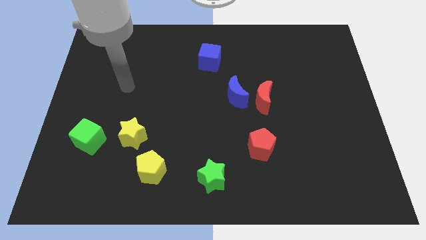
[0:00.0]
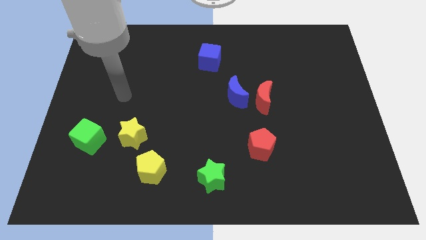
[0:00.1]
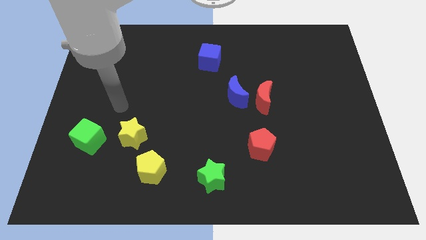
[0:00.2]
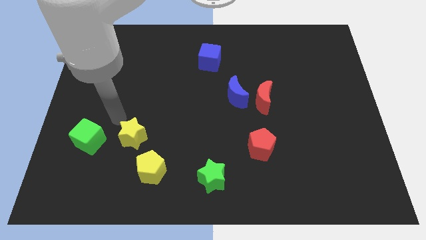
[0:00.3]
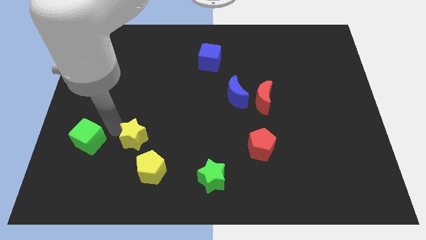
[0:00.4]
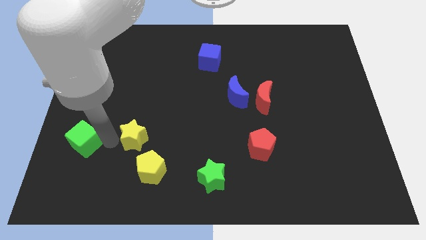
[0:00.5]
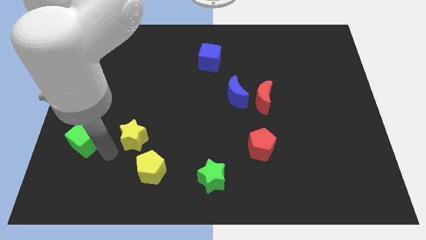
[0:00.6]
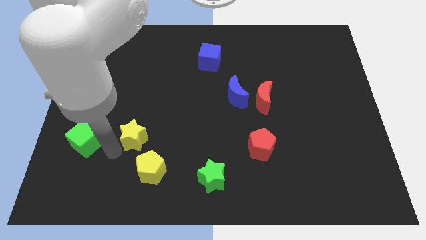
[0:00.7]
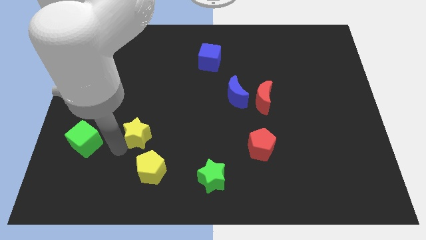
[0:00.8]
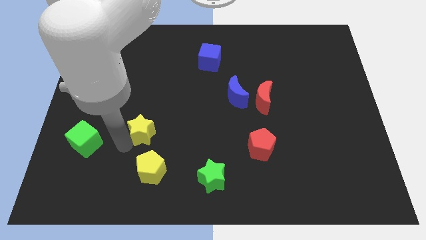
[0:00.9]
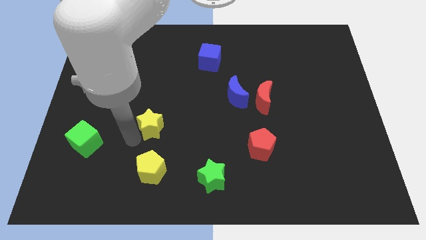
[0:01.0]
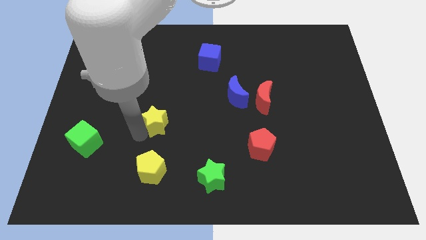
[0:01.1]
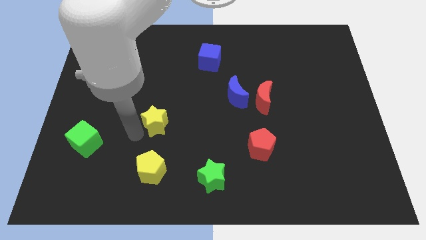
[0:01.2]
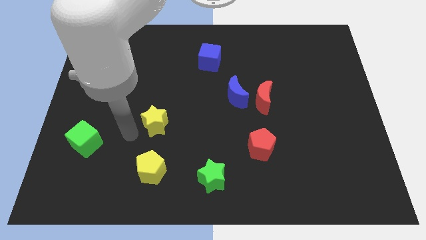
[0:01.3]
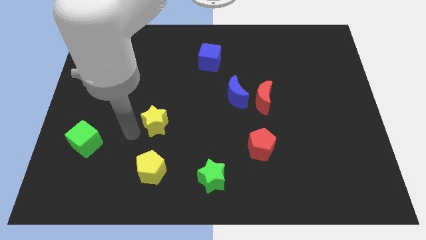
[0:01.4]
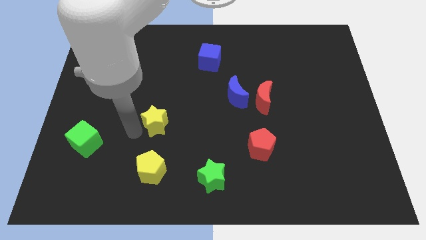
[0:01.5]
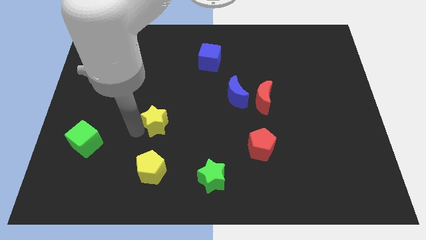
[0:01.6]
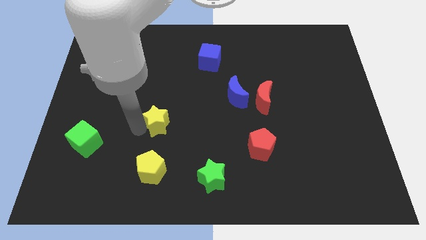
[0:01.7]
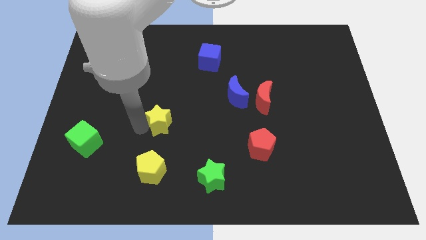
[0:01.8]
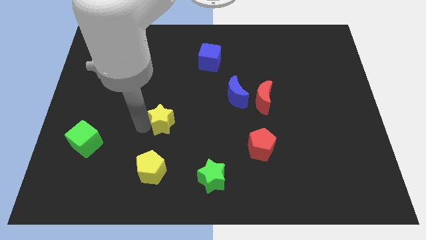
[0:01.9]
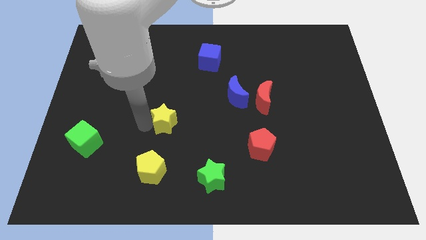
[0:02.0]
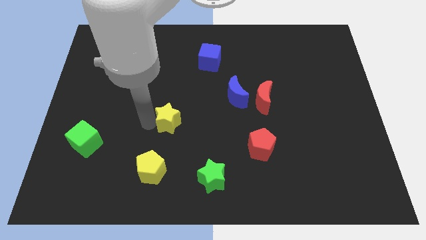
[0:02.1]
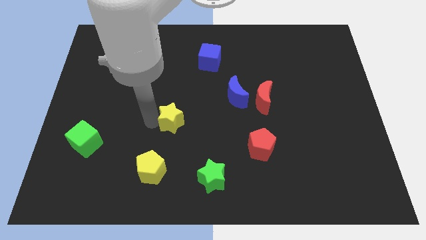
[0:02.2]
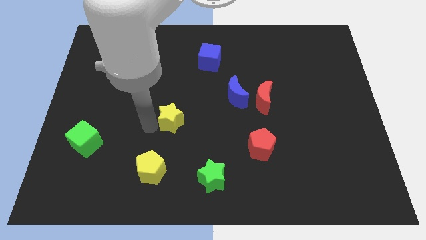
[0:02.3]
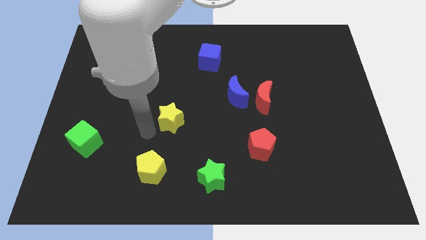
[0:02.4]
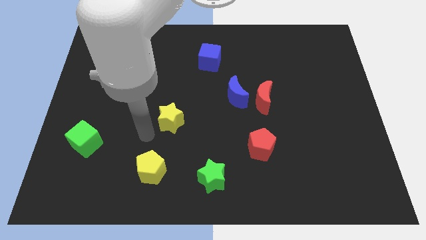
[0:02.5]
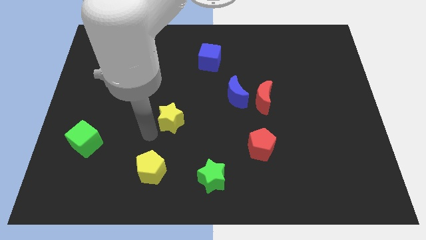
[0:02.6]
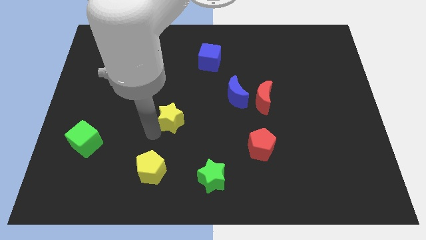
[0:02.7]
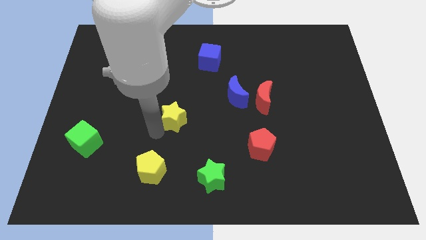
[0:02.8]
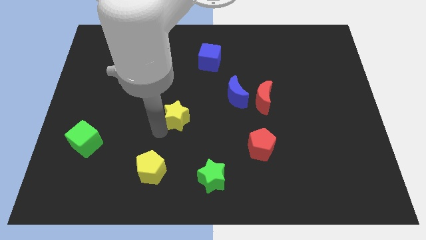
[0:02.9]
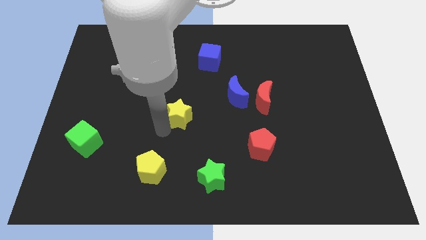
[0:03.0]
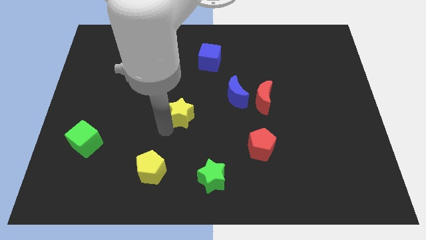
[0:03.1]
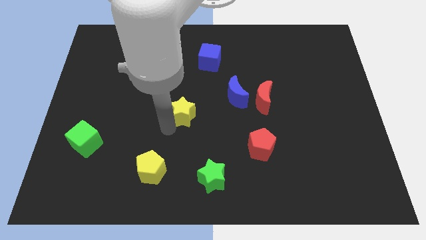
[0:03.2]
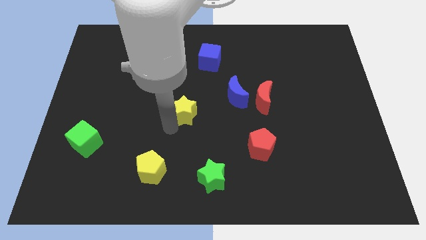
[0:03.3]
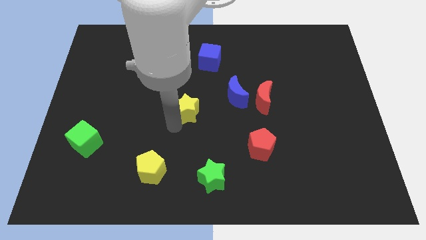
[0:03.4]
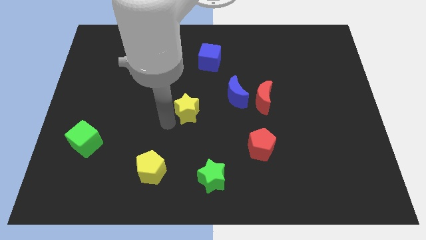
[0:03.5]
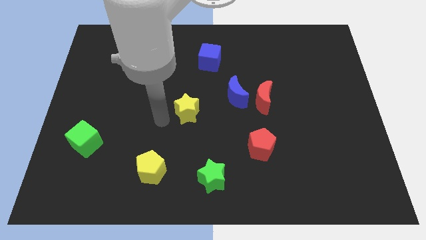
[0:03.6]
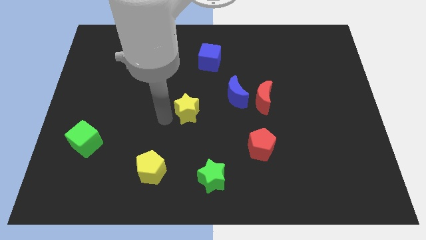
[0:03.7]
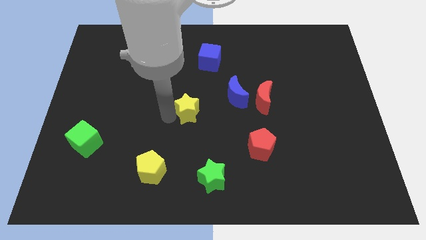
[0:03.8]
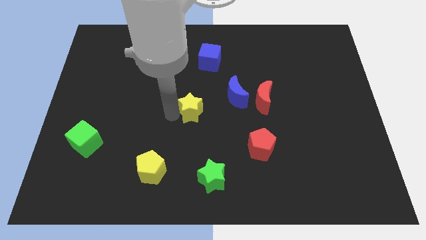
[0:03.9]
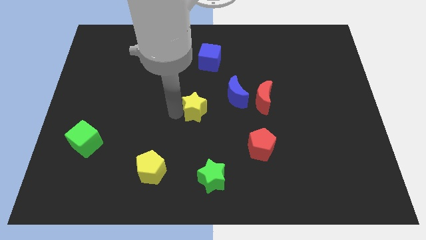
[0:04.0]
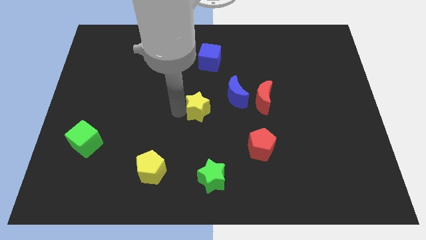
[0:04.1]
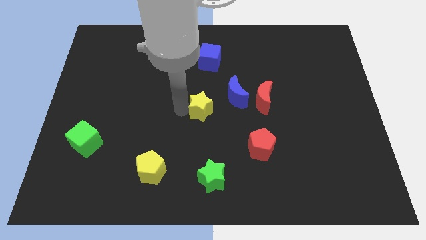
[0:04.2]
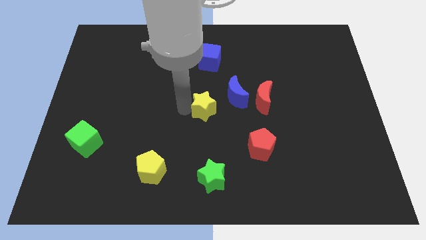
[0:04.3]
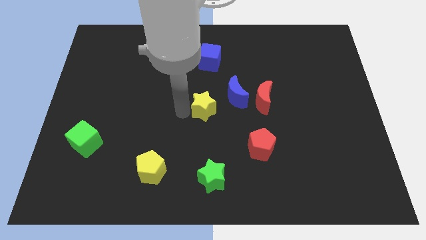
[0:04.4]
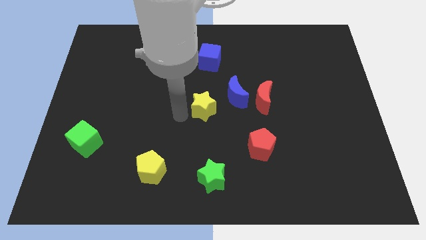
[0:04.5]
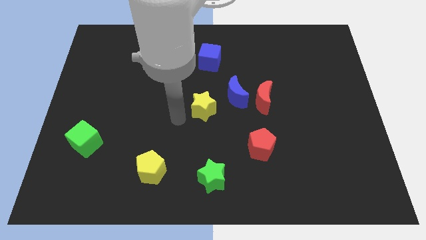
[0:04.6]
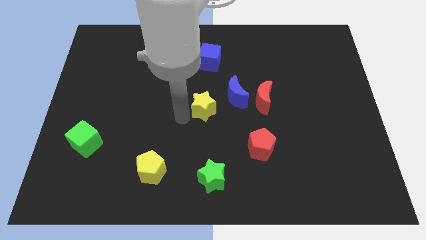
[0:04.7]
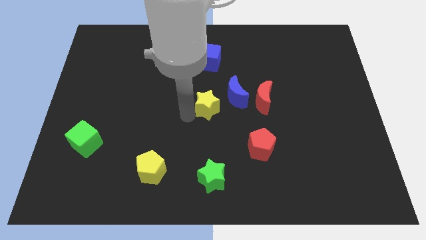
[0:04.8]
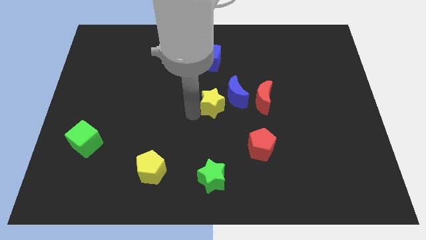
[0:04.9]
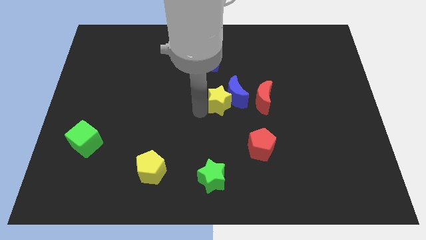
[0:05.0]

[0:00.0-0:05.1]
put the yellow star next to the blue moon

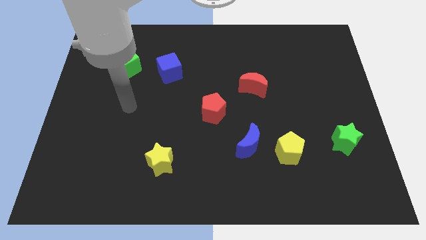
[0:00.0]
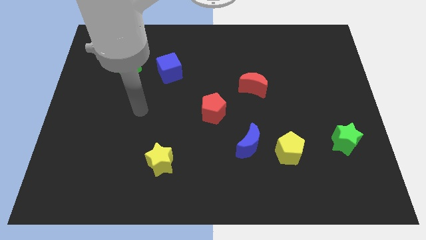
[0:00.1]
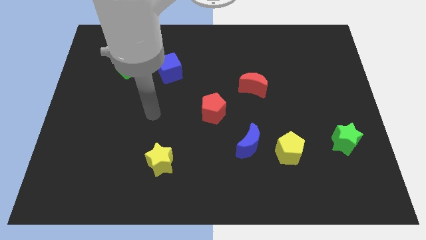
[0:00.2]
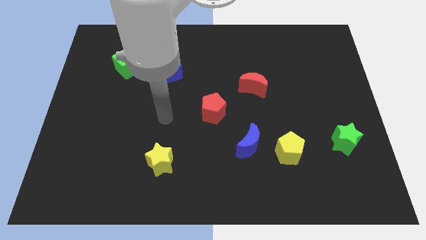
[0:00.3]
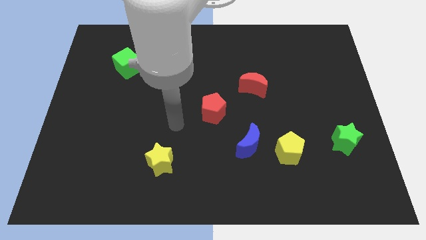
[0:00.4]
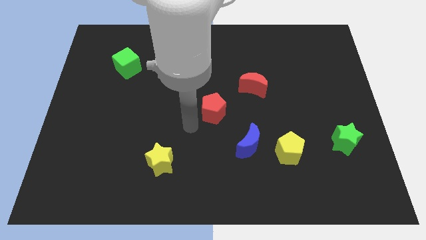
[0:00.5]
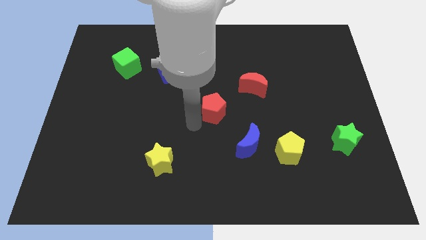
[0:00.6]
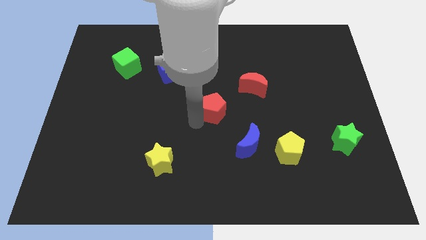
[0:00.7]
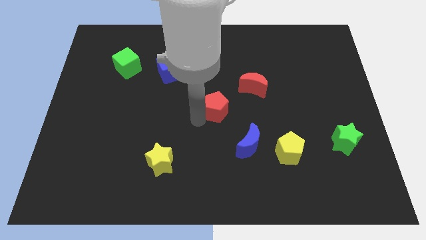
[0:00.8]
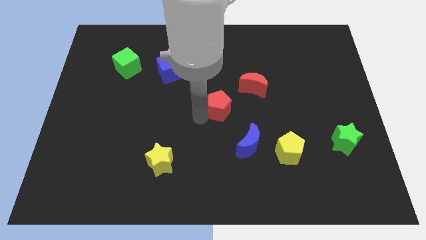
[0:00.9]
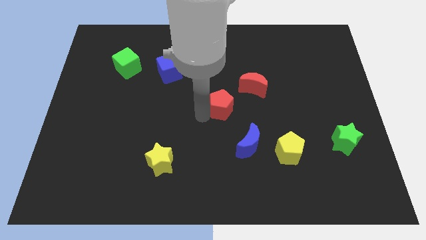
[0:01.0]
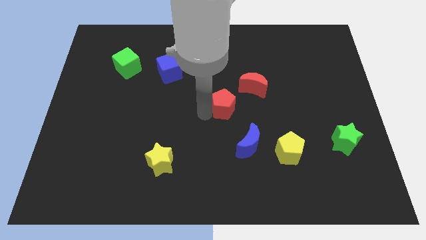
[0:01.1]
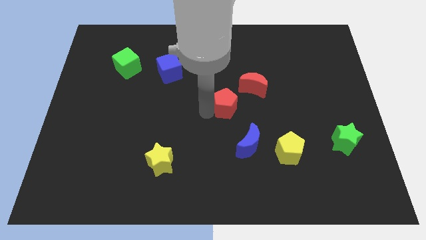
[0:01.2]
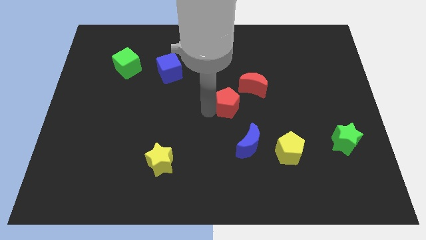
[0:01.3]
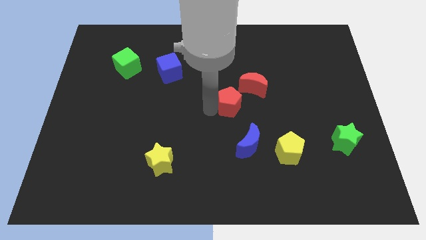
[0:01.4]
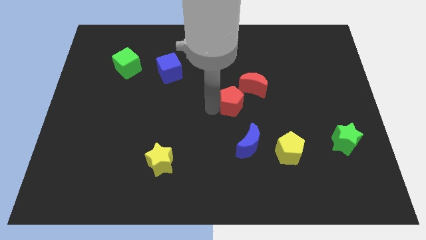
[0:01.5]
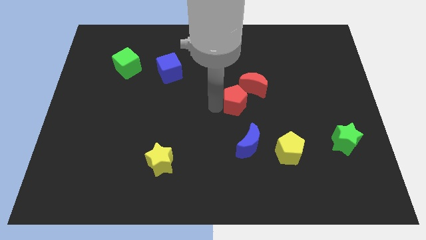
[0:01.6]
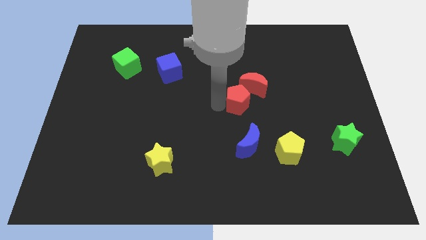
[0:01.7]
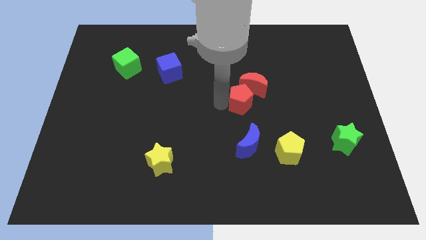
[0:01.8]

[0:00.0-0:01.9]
slide the red pentagon to the red moon
